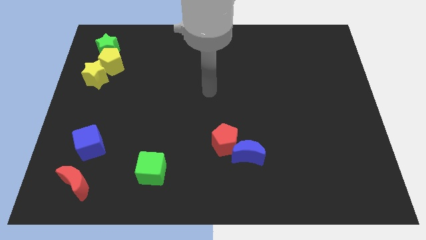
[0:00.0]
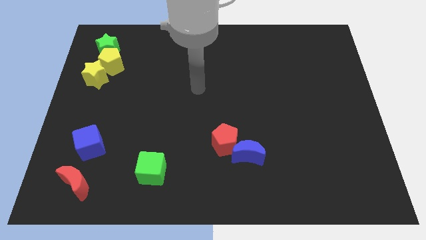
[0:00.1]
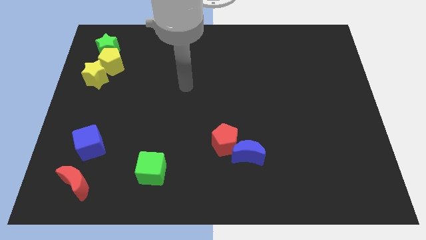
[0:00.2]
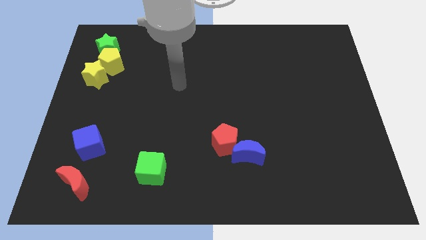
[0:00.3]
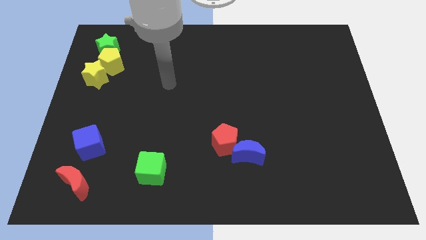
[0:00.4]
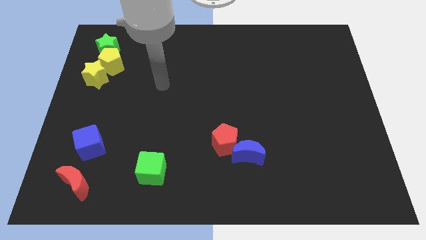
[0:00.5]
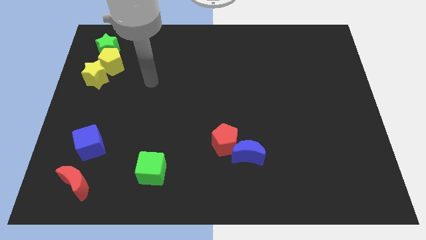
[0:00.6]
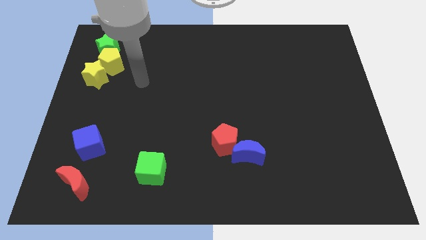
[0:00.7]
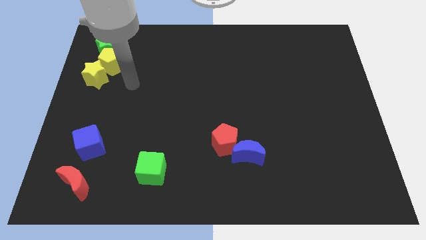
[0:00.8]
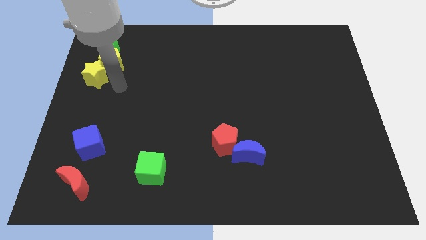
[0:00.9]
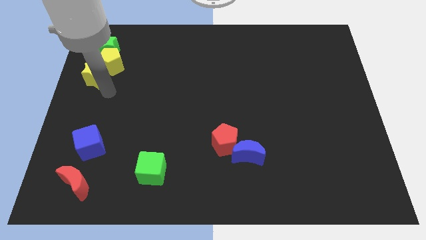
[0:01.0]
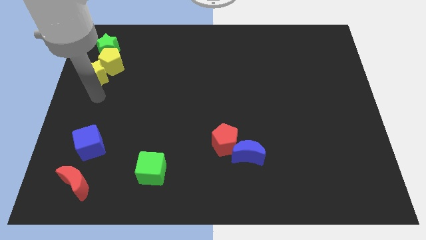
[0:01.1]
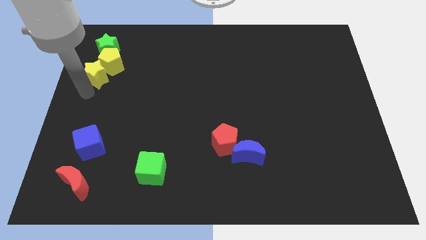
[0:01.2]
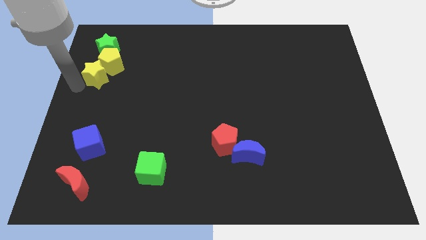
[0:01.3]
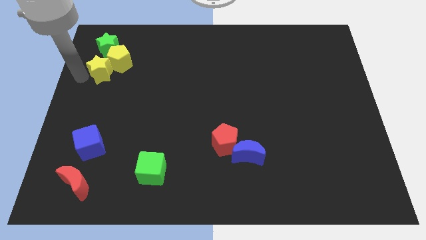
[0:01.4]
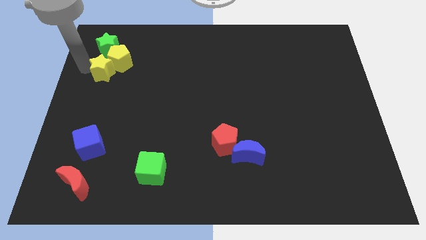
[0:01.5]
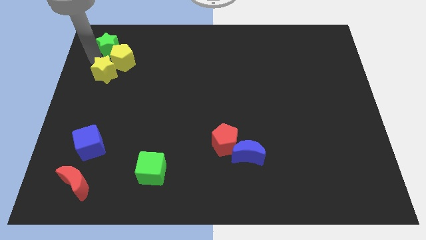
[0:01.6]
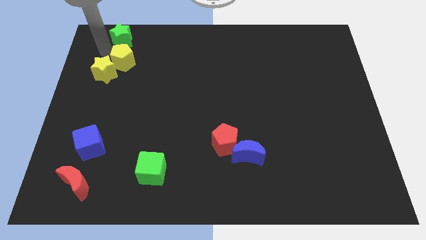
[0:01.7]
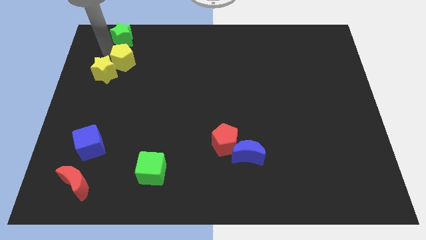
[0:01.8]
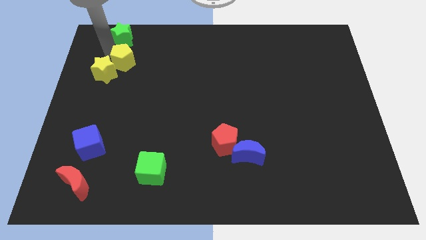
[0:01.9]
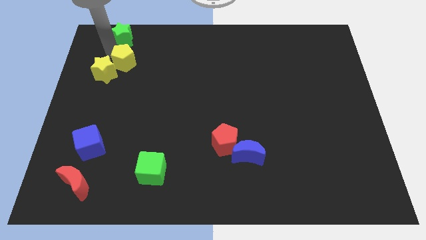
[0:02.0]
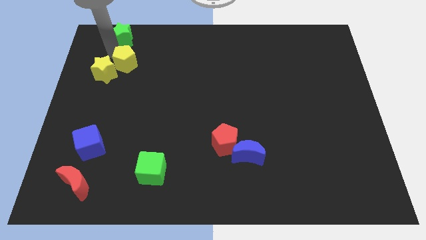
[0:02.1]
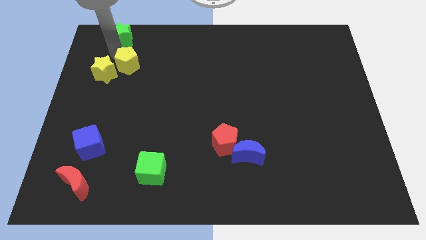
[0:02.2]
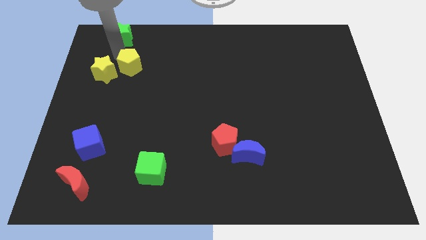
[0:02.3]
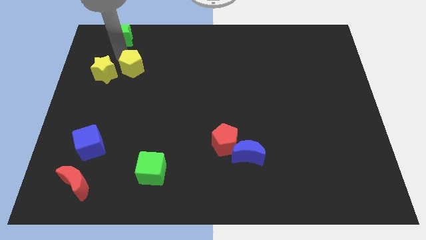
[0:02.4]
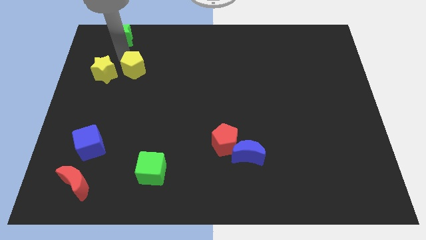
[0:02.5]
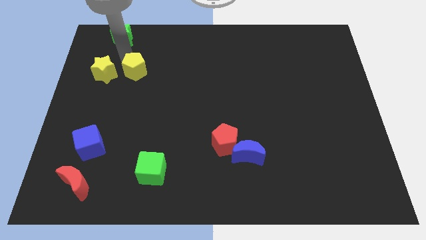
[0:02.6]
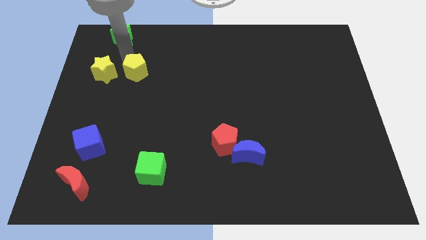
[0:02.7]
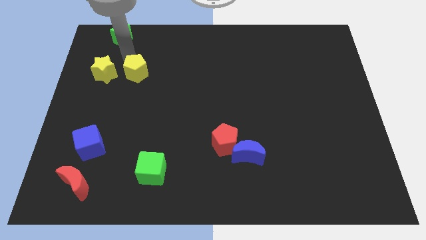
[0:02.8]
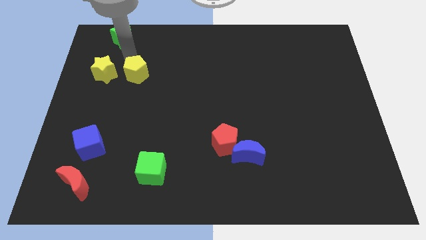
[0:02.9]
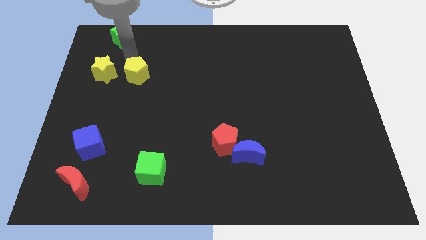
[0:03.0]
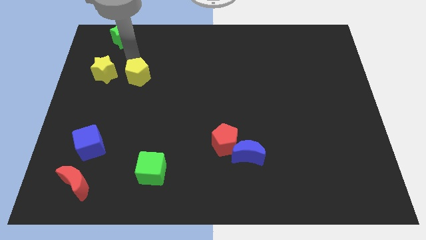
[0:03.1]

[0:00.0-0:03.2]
separate the yellow pentagon from the yellow star and green star

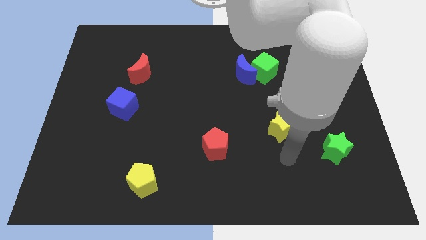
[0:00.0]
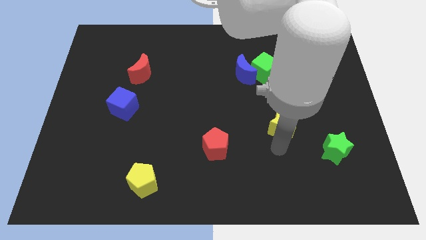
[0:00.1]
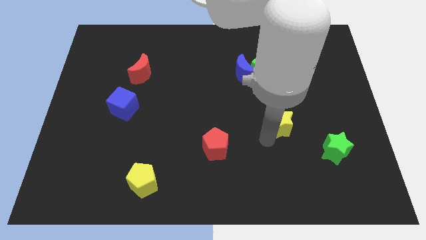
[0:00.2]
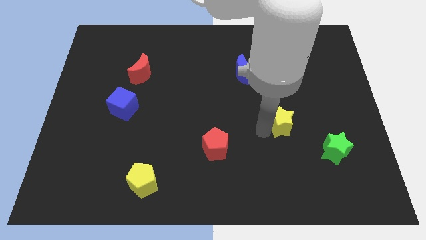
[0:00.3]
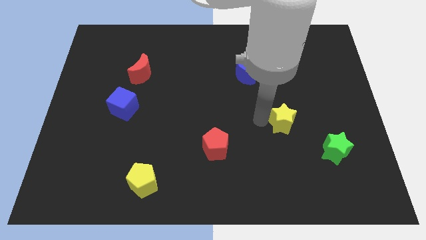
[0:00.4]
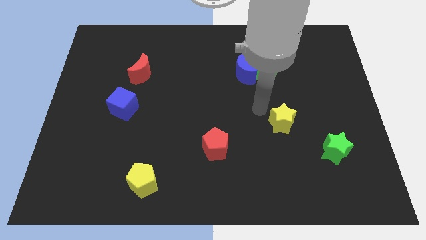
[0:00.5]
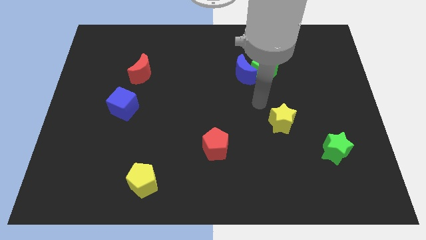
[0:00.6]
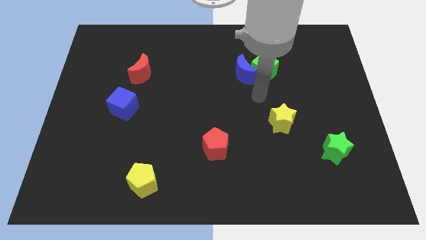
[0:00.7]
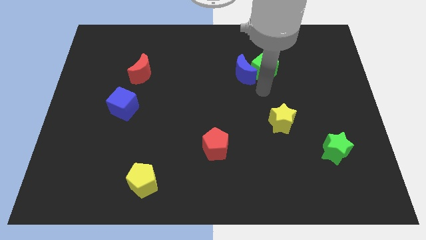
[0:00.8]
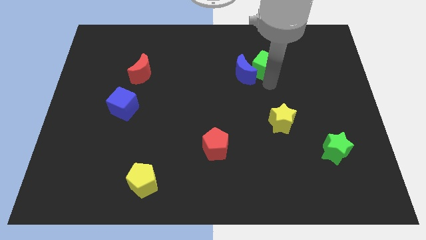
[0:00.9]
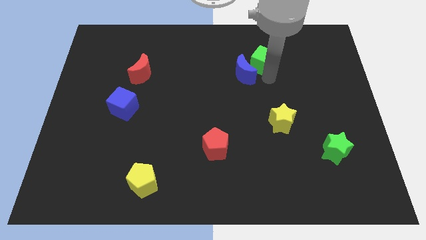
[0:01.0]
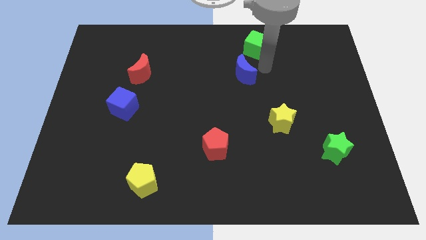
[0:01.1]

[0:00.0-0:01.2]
move the blue moon away from the green cube

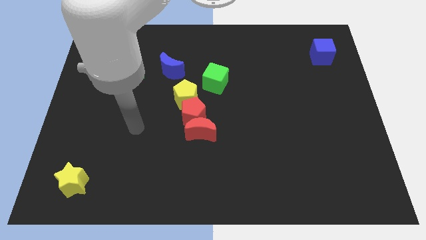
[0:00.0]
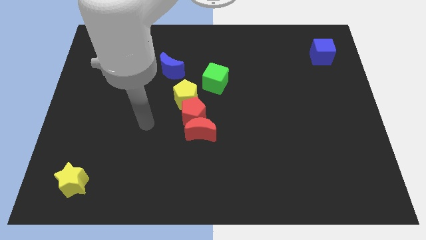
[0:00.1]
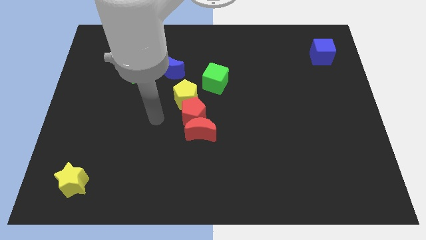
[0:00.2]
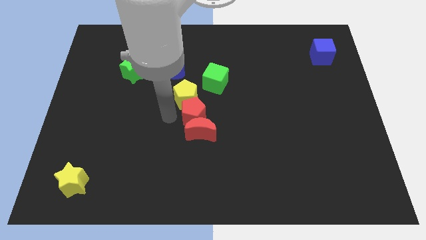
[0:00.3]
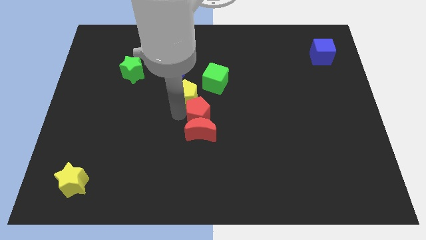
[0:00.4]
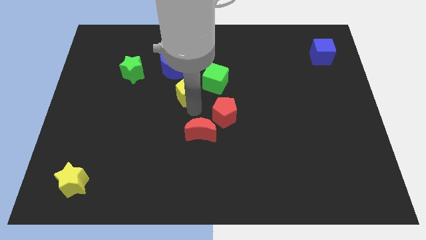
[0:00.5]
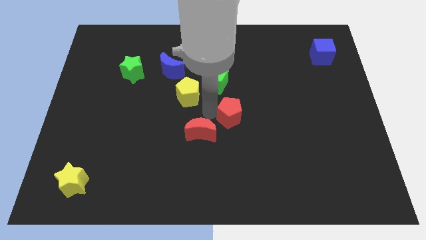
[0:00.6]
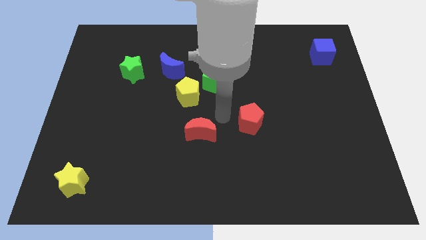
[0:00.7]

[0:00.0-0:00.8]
separate the red moon from the red pentagon

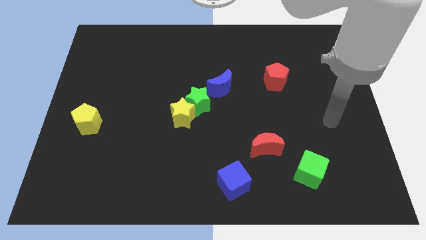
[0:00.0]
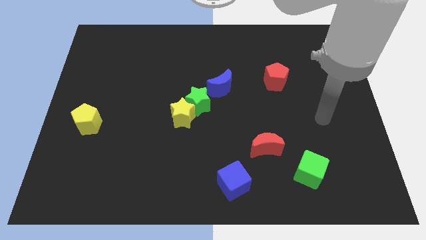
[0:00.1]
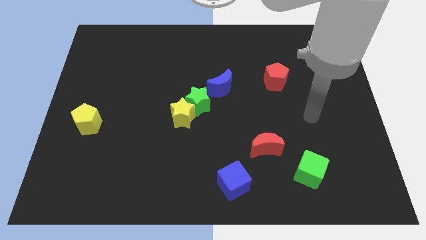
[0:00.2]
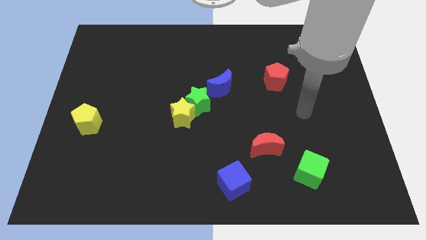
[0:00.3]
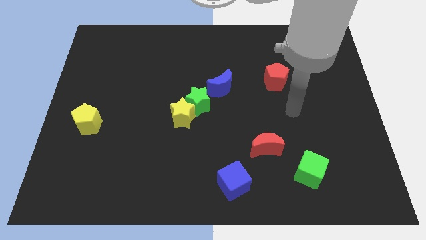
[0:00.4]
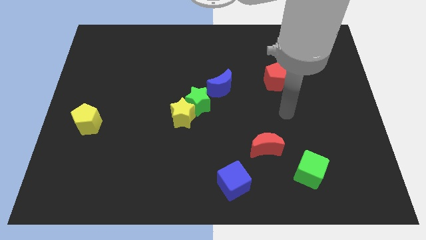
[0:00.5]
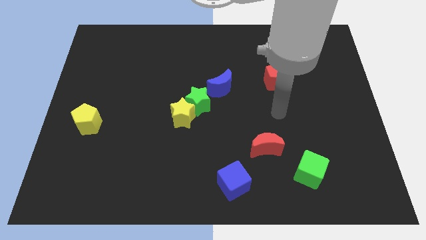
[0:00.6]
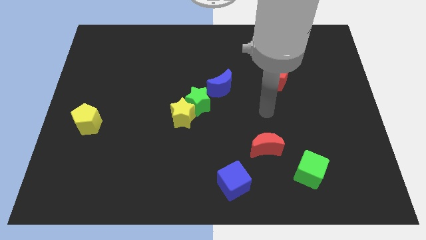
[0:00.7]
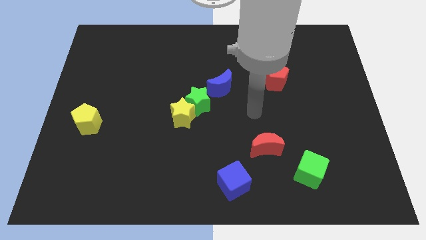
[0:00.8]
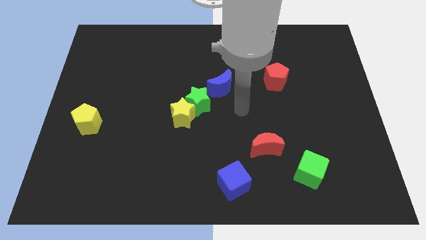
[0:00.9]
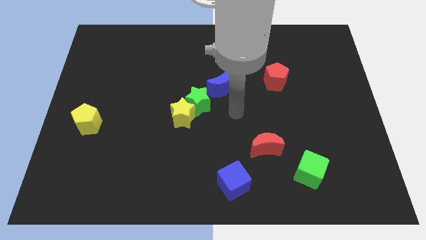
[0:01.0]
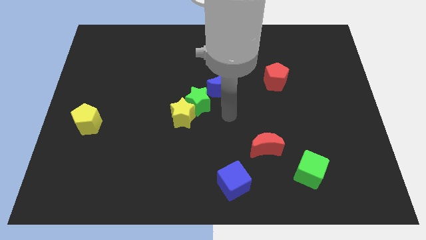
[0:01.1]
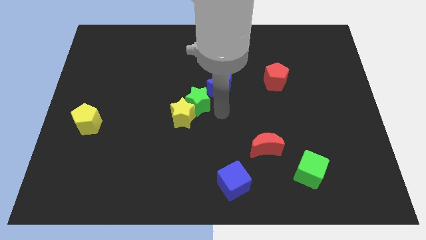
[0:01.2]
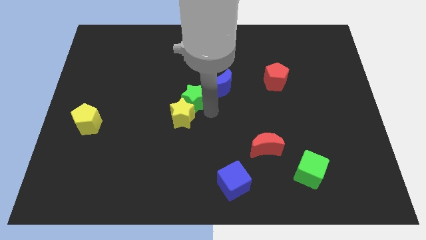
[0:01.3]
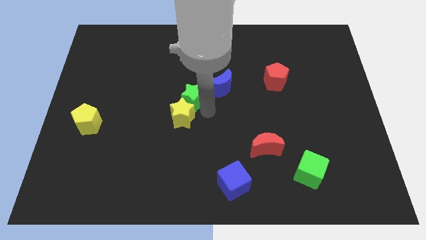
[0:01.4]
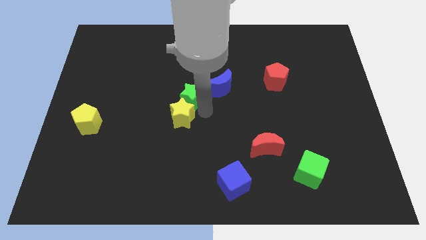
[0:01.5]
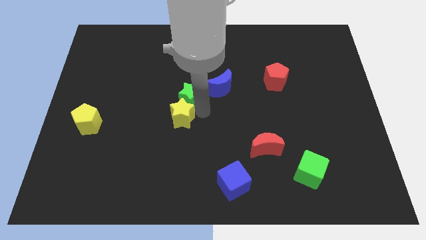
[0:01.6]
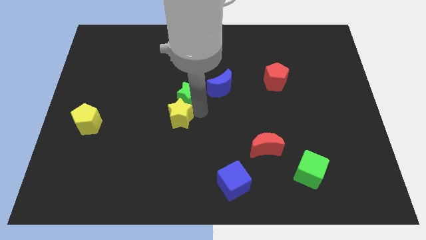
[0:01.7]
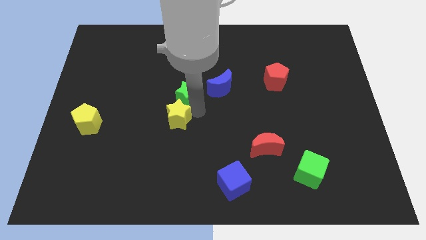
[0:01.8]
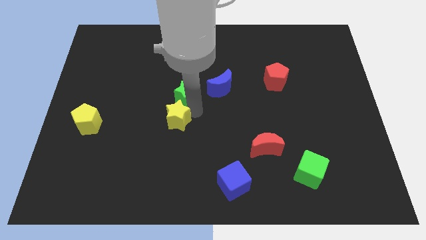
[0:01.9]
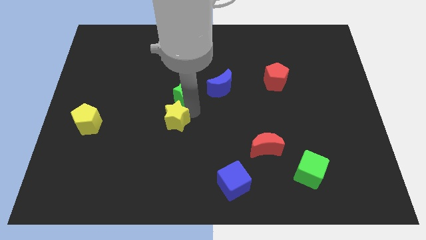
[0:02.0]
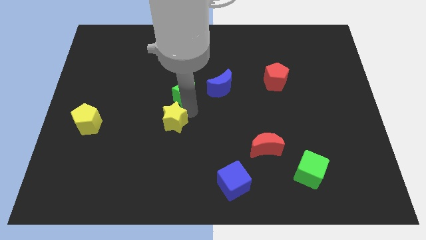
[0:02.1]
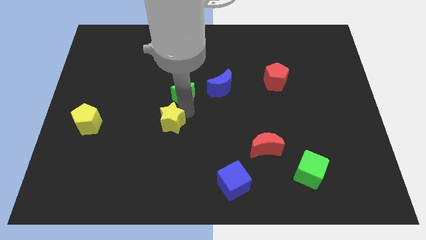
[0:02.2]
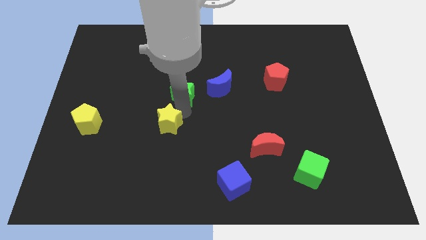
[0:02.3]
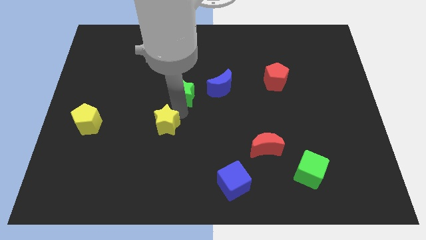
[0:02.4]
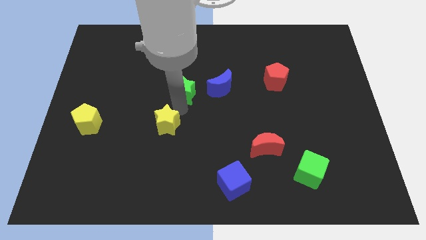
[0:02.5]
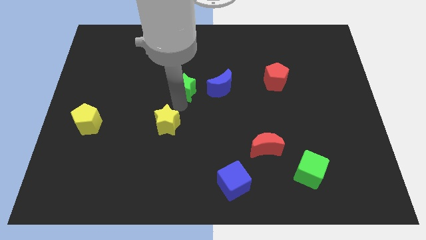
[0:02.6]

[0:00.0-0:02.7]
pull the yellow star apart from the green star

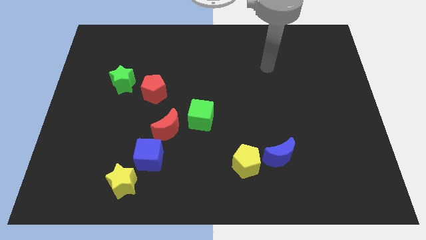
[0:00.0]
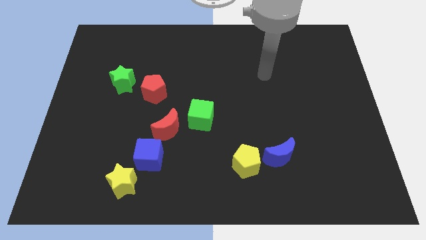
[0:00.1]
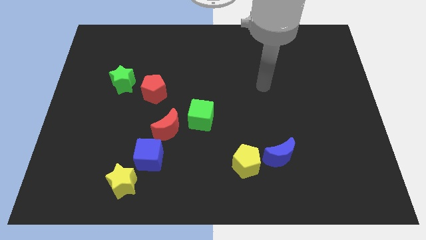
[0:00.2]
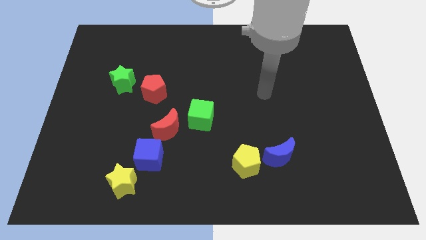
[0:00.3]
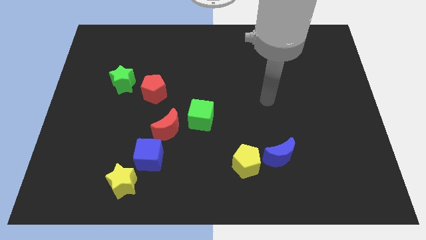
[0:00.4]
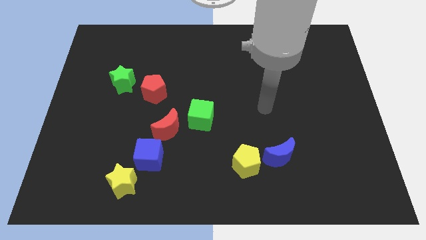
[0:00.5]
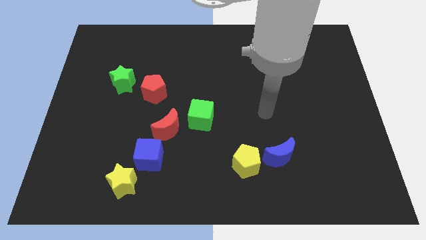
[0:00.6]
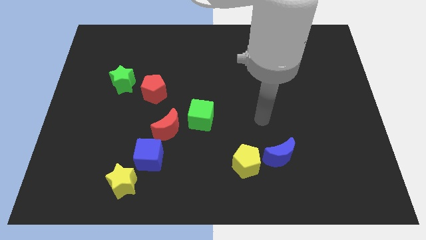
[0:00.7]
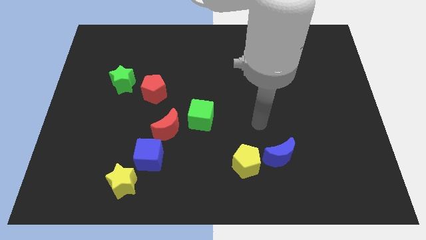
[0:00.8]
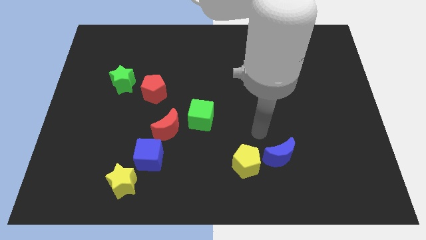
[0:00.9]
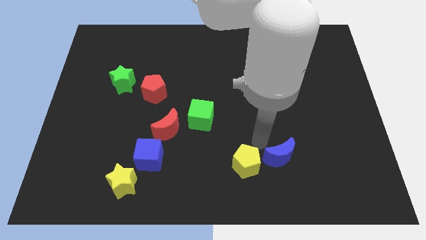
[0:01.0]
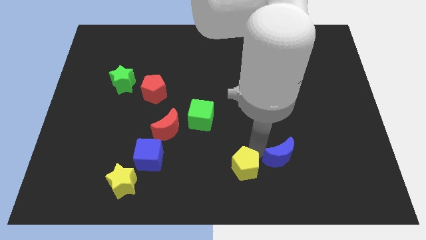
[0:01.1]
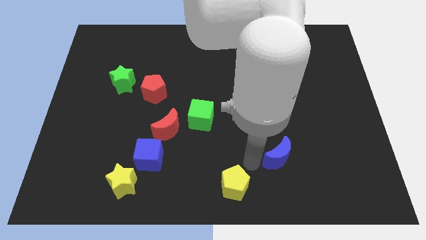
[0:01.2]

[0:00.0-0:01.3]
separate the blue moon from the yellow pentagon
